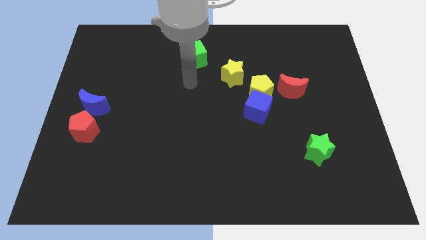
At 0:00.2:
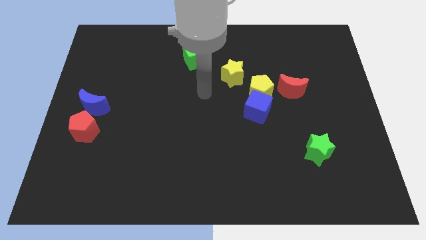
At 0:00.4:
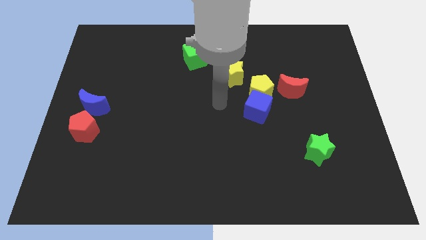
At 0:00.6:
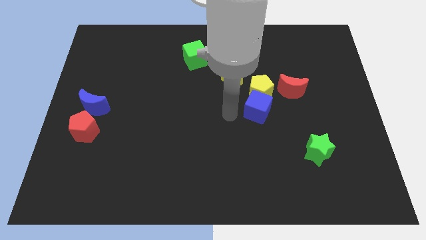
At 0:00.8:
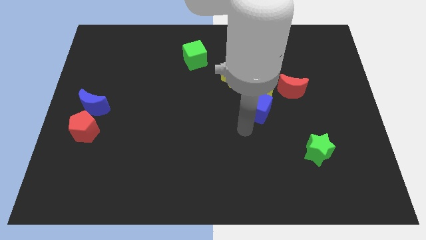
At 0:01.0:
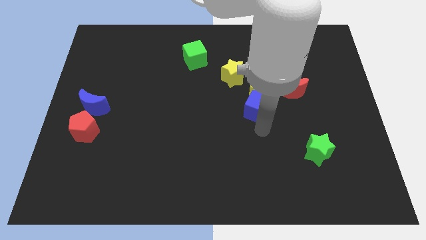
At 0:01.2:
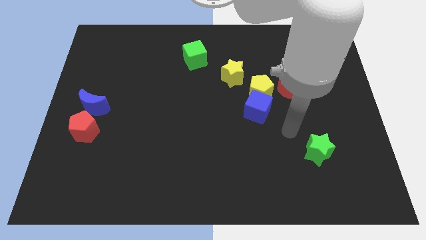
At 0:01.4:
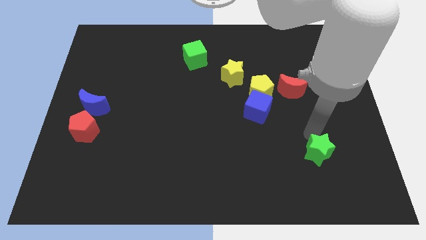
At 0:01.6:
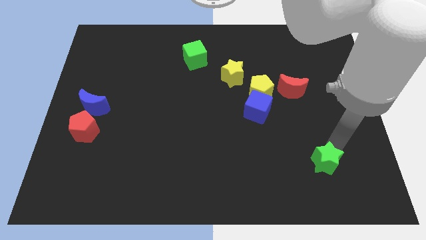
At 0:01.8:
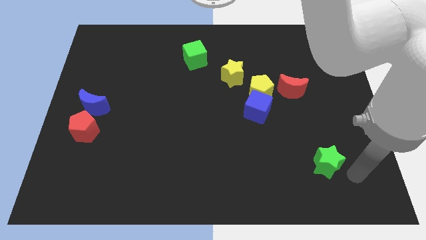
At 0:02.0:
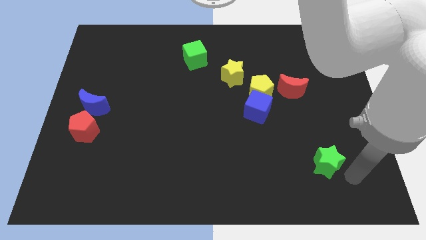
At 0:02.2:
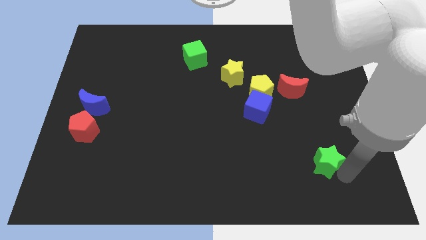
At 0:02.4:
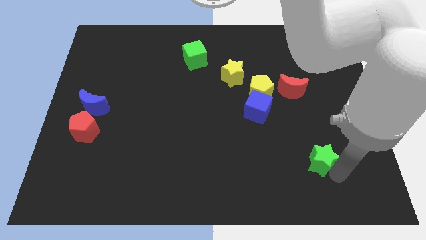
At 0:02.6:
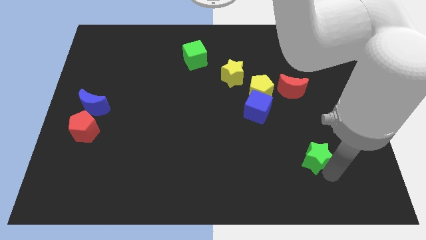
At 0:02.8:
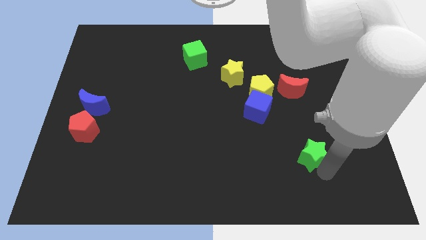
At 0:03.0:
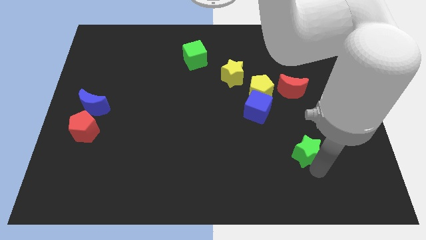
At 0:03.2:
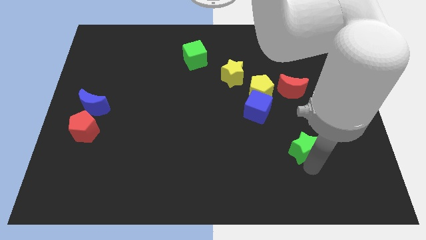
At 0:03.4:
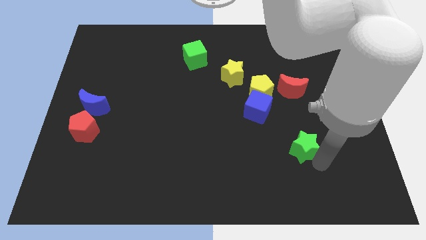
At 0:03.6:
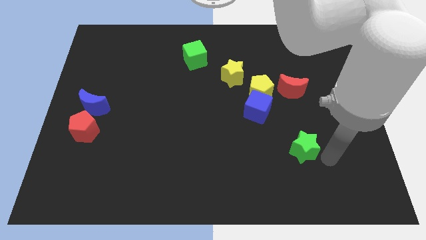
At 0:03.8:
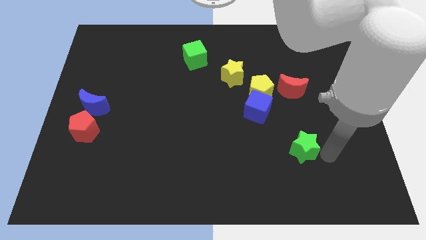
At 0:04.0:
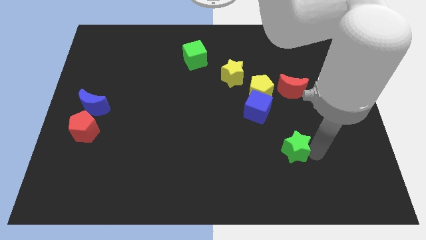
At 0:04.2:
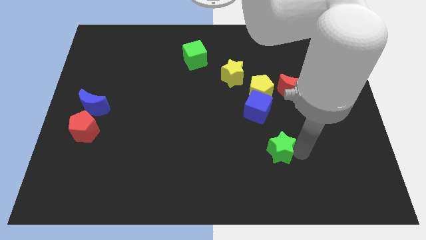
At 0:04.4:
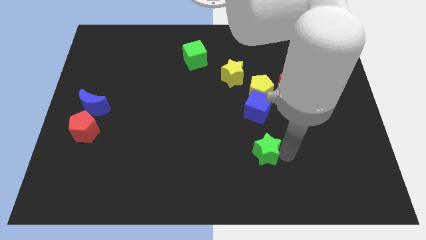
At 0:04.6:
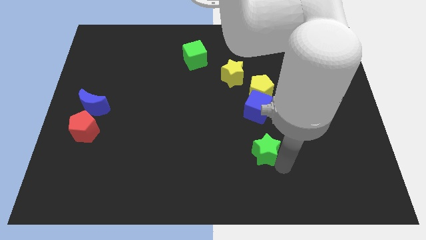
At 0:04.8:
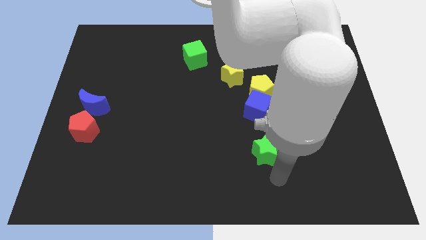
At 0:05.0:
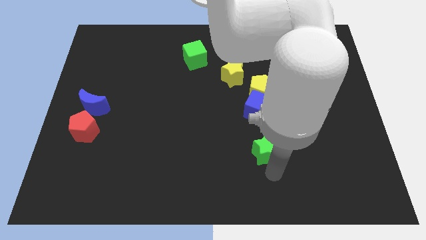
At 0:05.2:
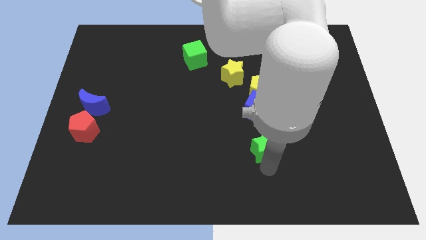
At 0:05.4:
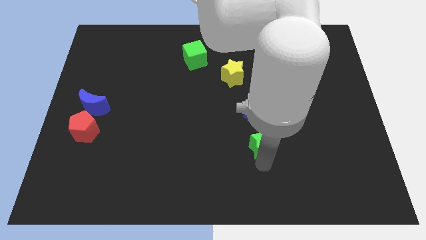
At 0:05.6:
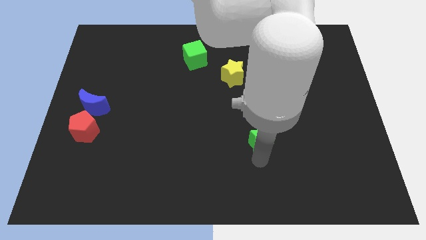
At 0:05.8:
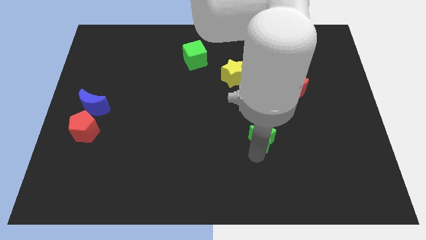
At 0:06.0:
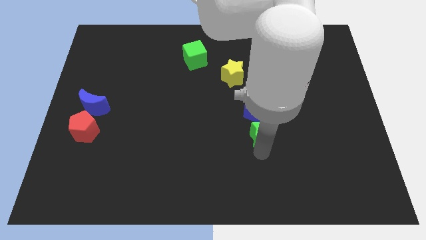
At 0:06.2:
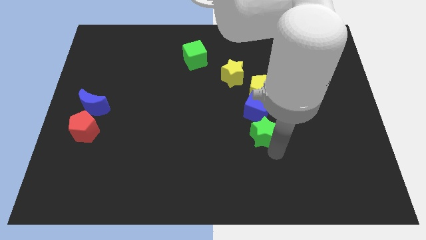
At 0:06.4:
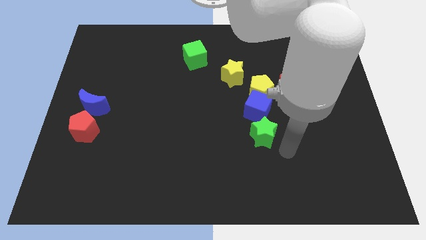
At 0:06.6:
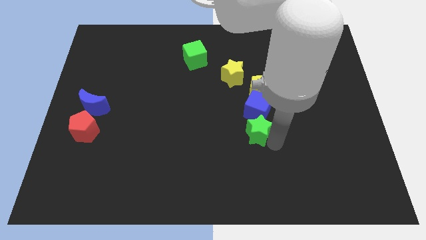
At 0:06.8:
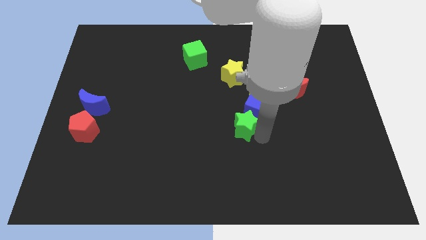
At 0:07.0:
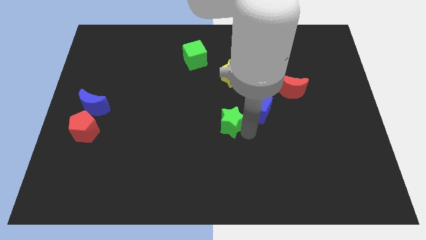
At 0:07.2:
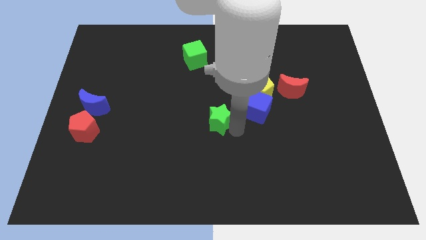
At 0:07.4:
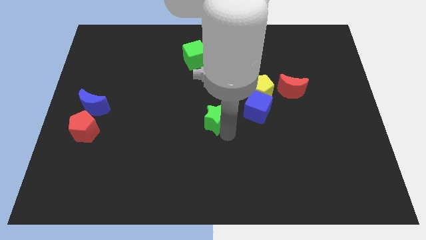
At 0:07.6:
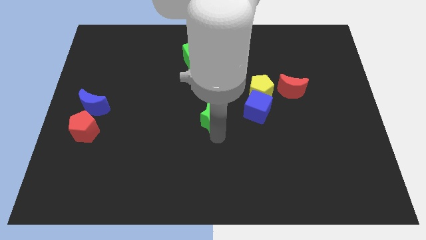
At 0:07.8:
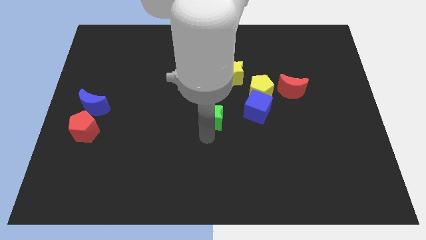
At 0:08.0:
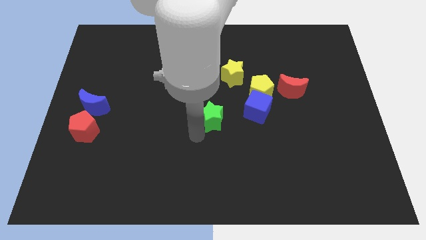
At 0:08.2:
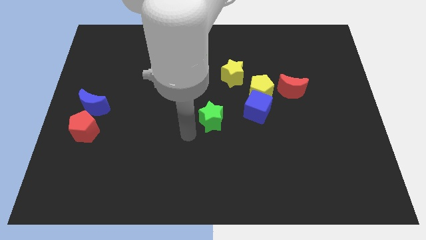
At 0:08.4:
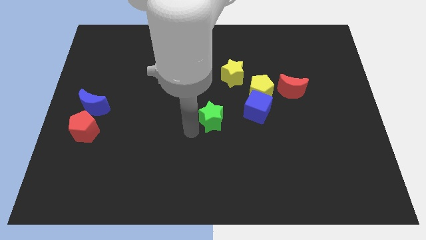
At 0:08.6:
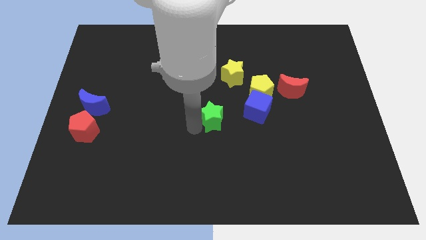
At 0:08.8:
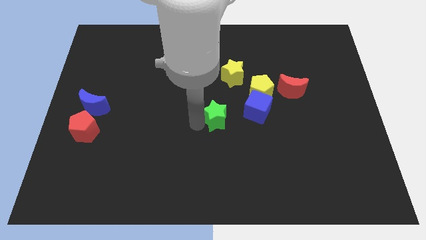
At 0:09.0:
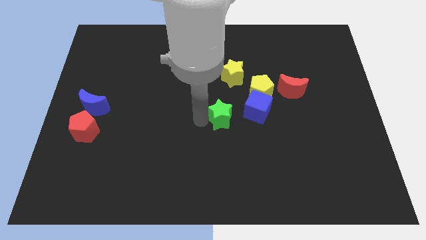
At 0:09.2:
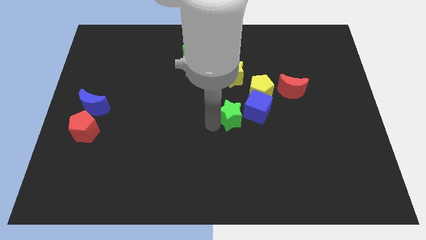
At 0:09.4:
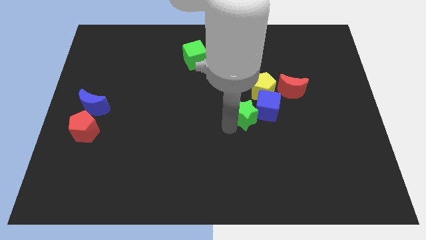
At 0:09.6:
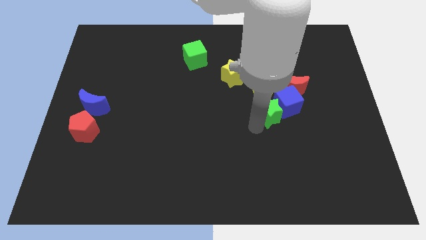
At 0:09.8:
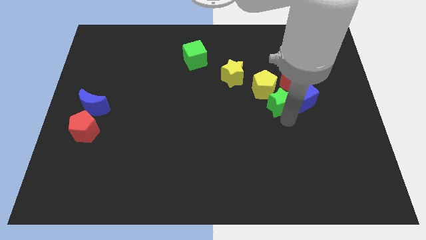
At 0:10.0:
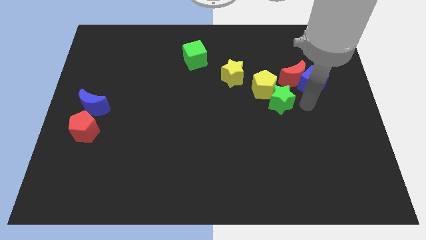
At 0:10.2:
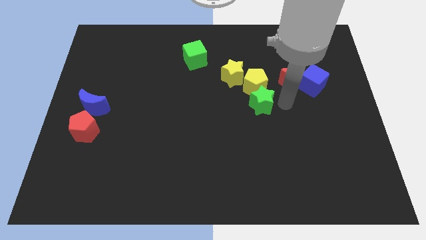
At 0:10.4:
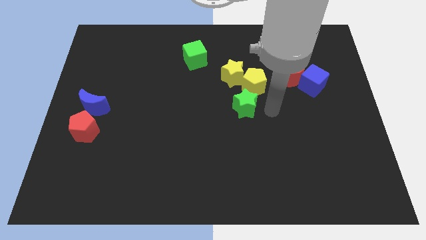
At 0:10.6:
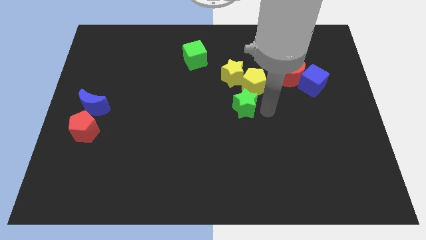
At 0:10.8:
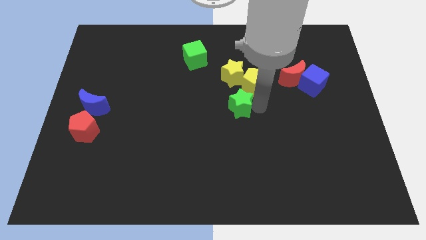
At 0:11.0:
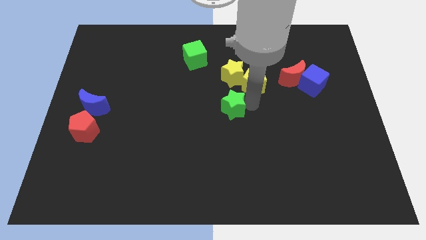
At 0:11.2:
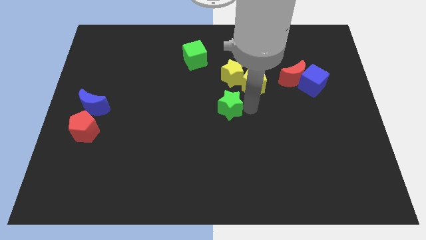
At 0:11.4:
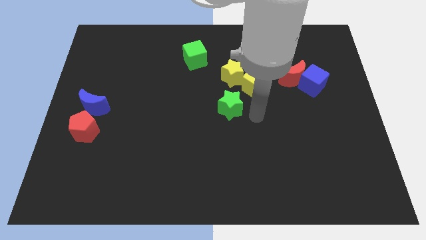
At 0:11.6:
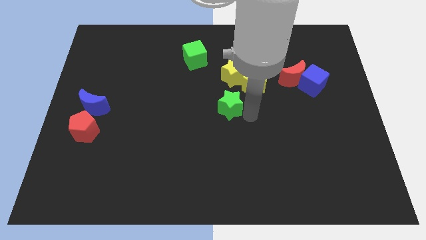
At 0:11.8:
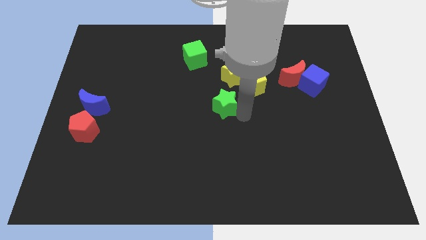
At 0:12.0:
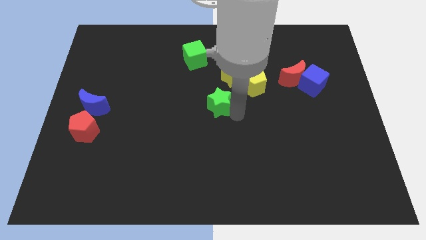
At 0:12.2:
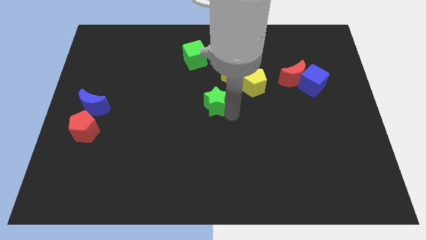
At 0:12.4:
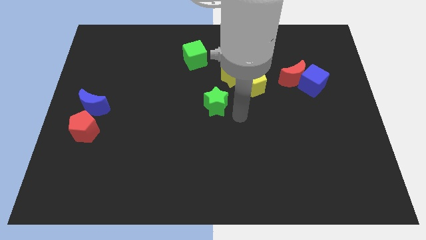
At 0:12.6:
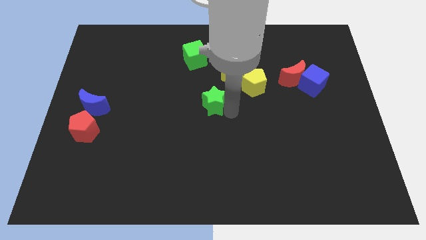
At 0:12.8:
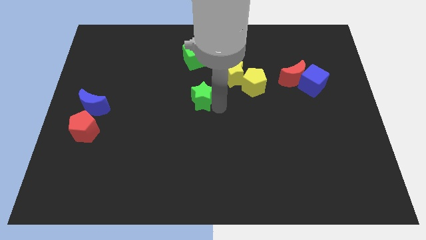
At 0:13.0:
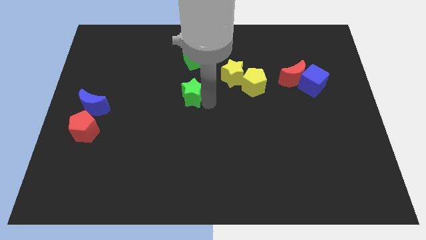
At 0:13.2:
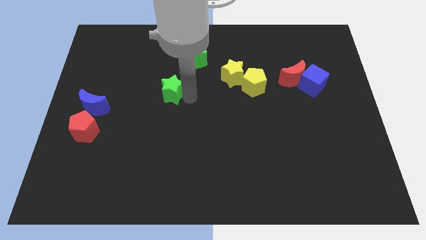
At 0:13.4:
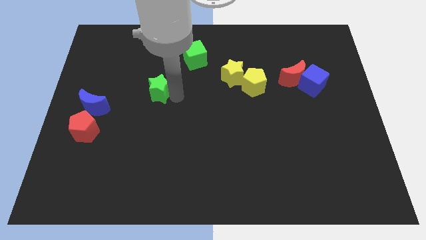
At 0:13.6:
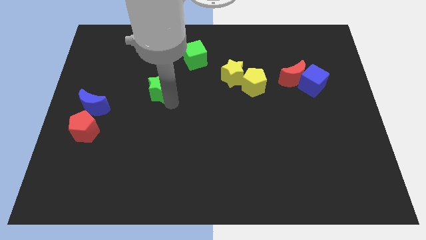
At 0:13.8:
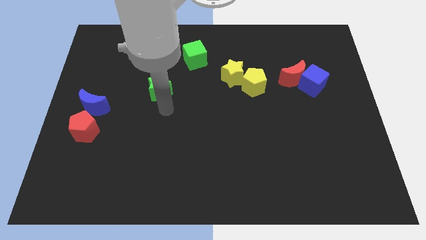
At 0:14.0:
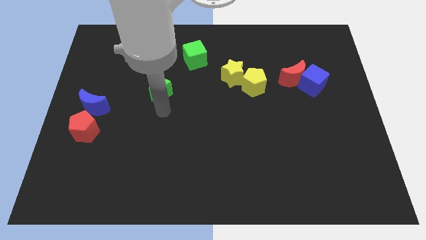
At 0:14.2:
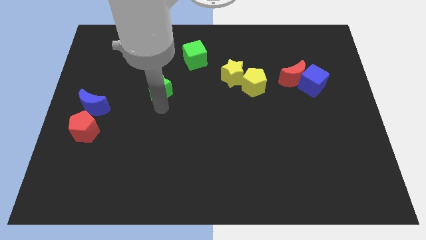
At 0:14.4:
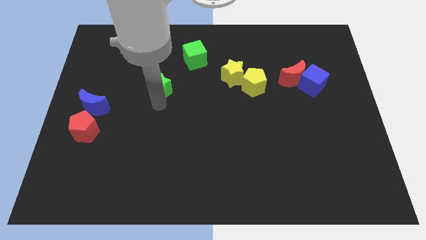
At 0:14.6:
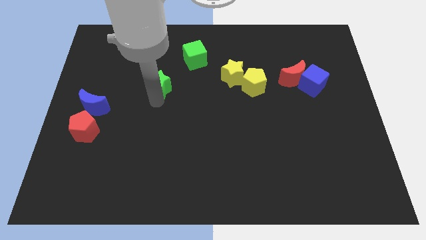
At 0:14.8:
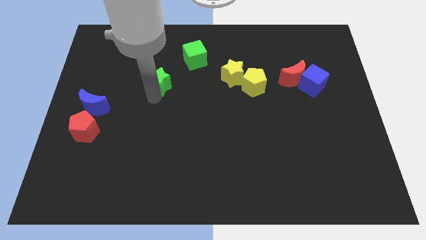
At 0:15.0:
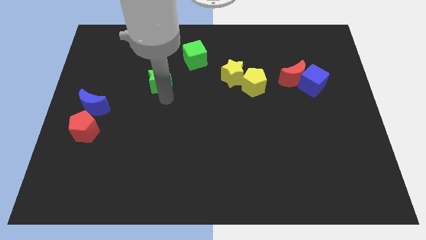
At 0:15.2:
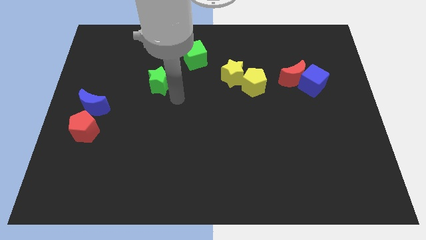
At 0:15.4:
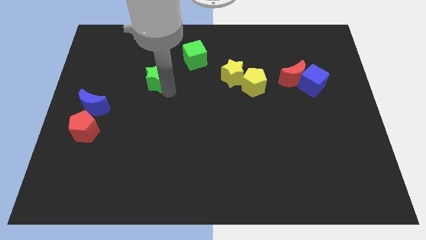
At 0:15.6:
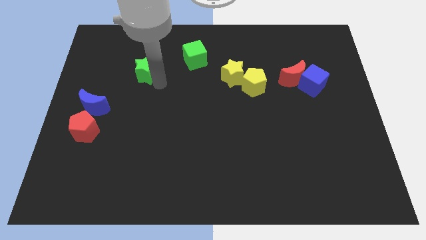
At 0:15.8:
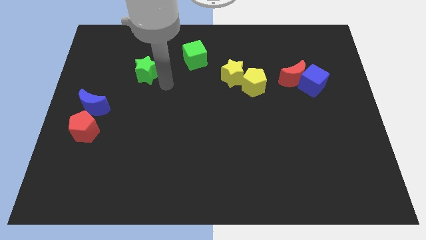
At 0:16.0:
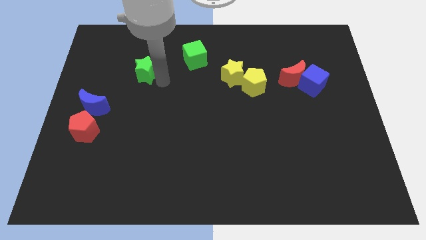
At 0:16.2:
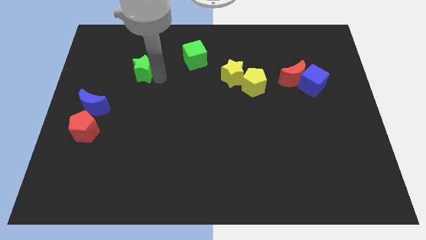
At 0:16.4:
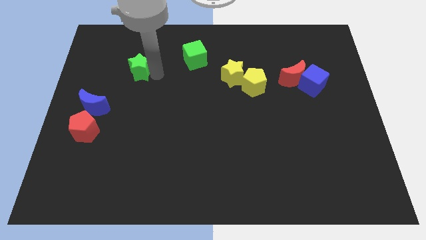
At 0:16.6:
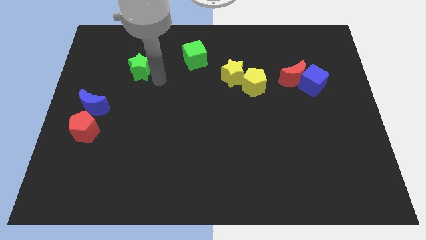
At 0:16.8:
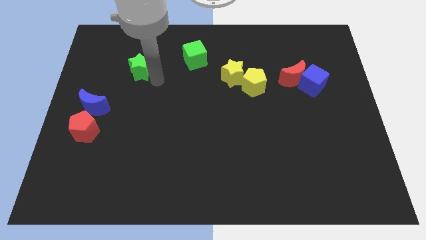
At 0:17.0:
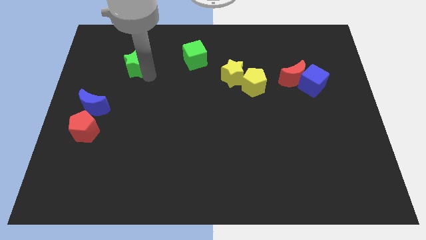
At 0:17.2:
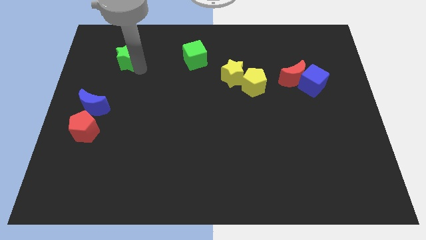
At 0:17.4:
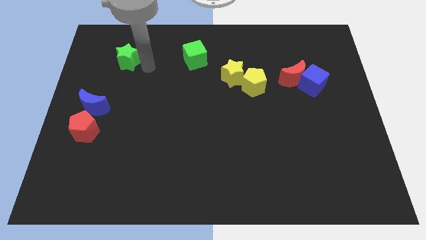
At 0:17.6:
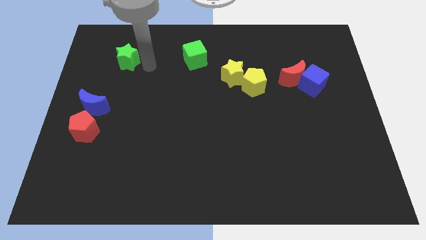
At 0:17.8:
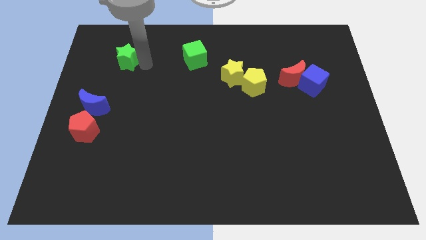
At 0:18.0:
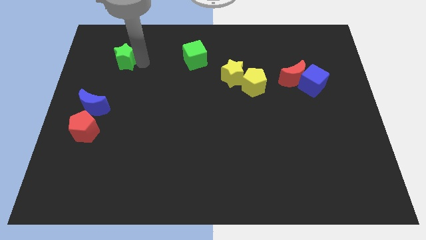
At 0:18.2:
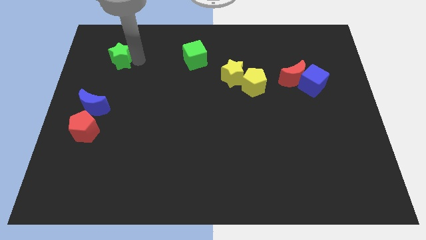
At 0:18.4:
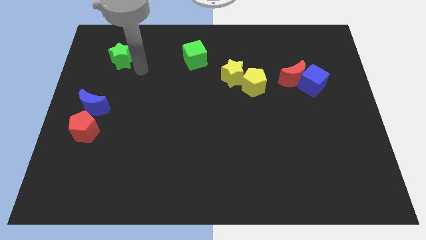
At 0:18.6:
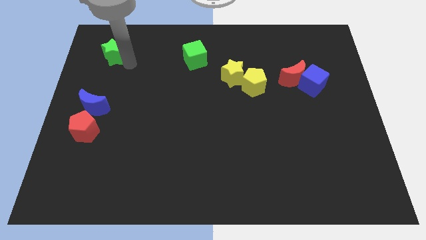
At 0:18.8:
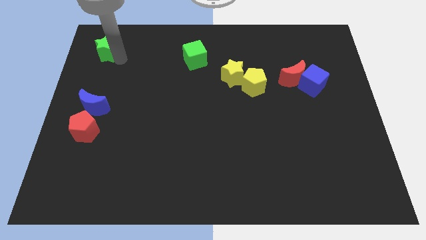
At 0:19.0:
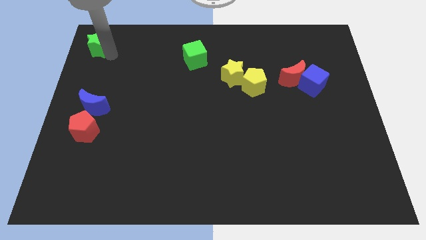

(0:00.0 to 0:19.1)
move the green star to the top left
